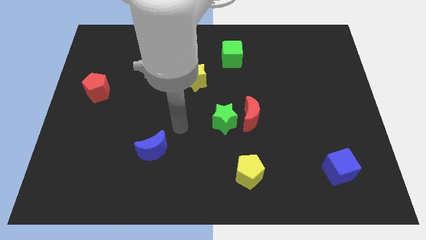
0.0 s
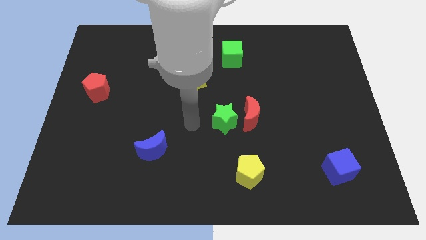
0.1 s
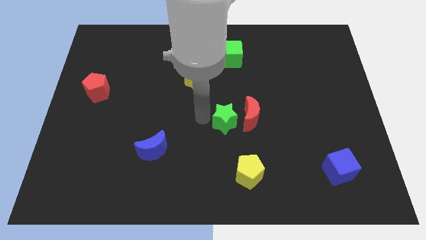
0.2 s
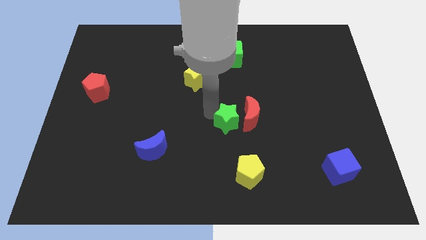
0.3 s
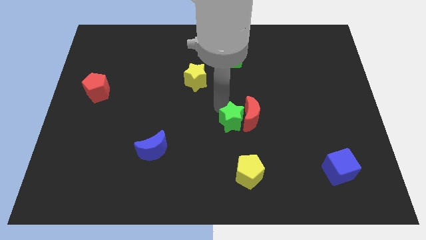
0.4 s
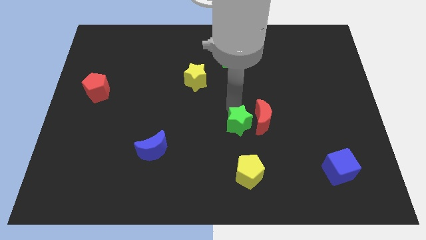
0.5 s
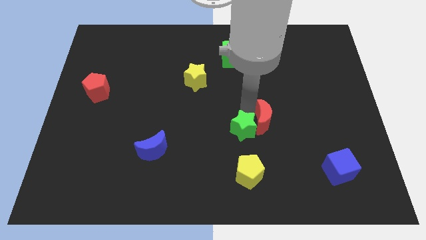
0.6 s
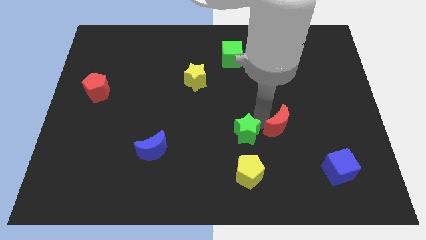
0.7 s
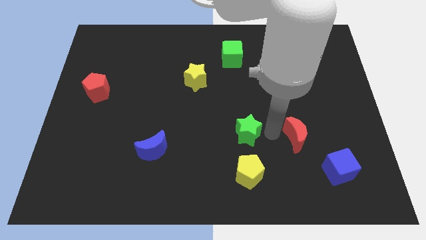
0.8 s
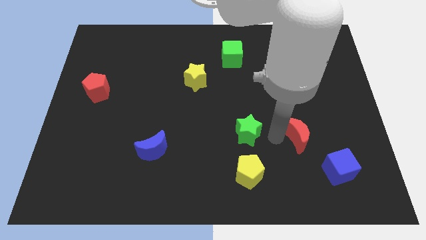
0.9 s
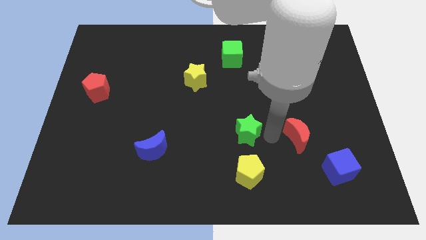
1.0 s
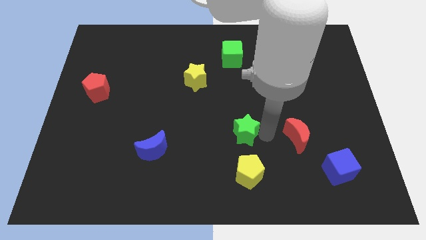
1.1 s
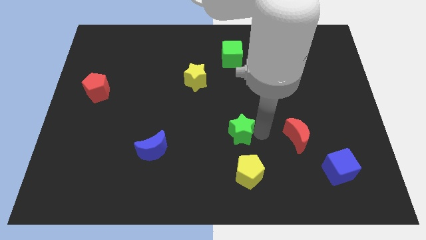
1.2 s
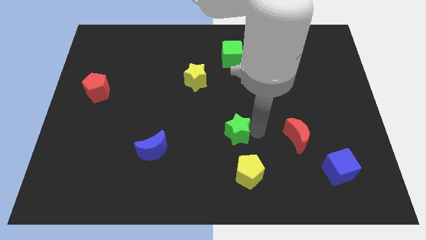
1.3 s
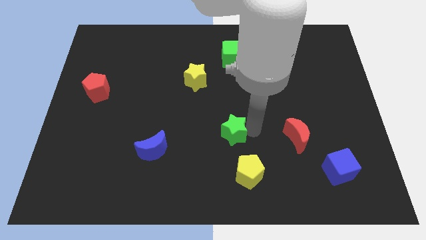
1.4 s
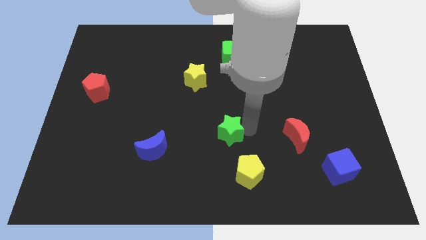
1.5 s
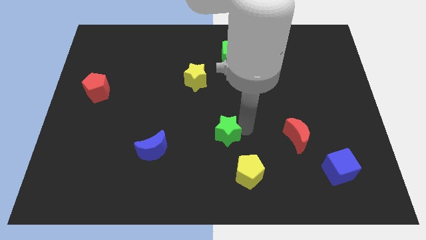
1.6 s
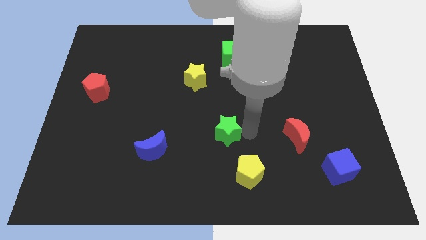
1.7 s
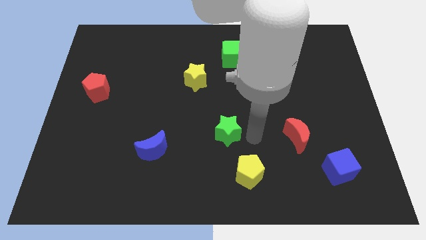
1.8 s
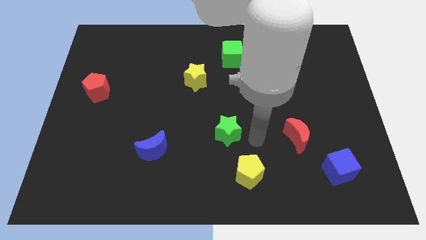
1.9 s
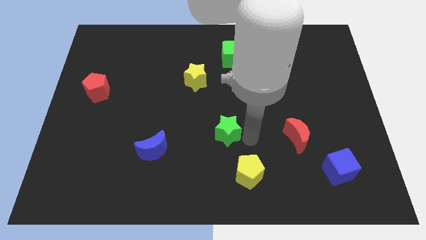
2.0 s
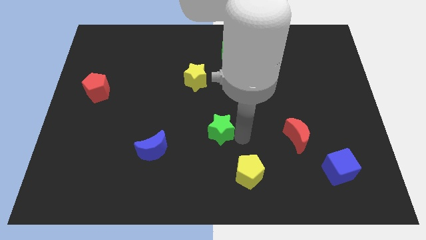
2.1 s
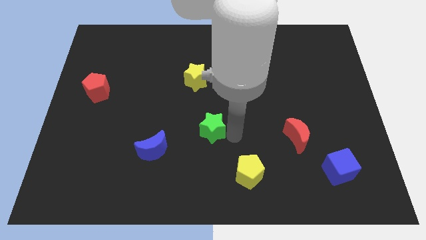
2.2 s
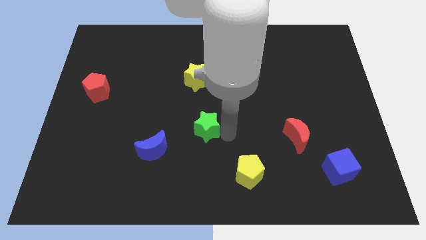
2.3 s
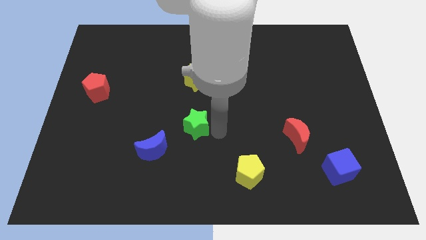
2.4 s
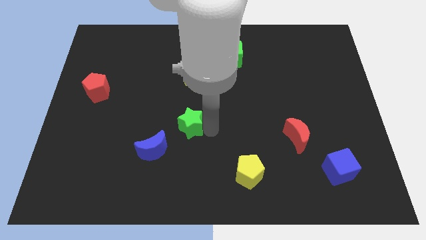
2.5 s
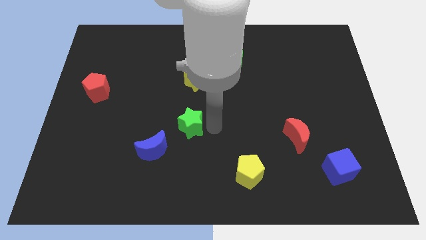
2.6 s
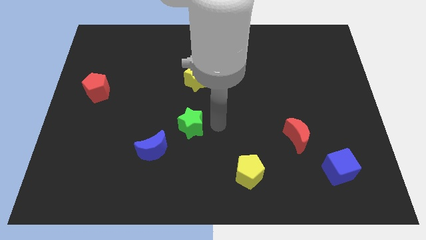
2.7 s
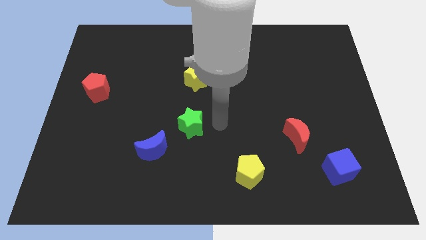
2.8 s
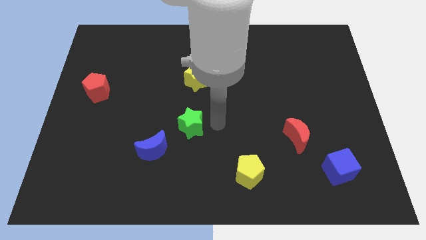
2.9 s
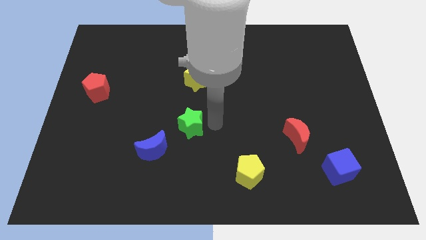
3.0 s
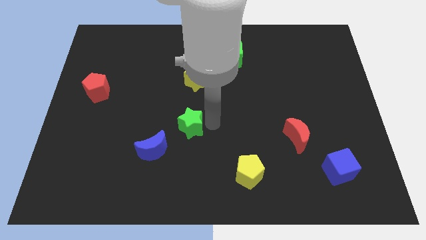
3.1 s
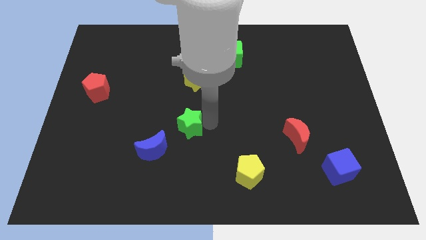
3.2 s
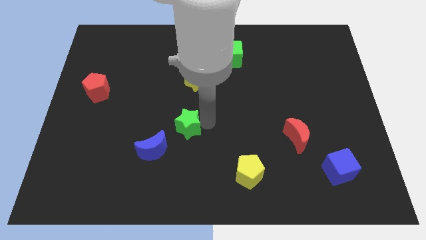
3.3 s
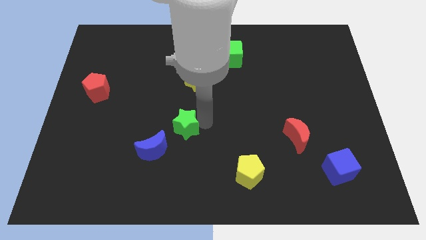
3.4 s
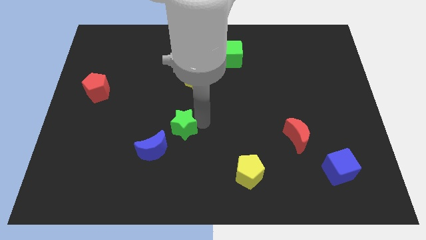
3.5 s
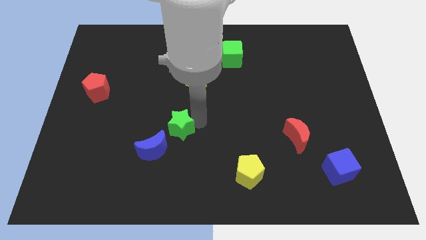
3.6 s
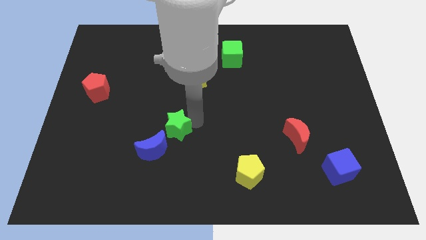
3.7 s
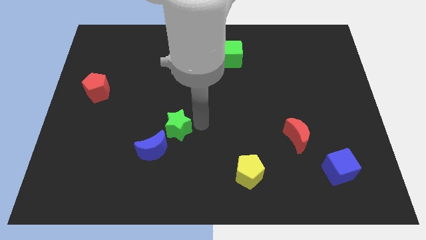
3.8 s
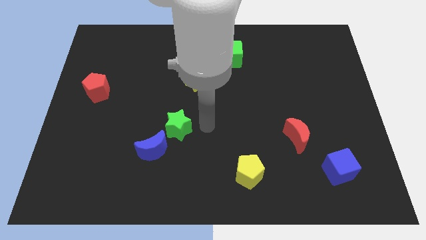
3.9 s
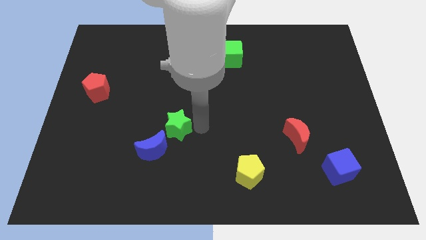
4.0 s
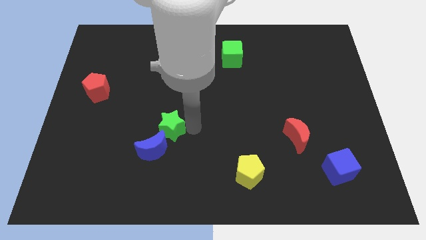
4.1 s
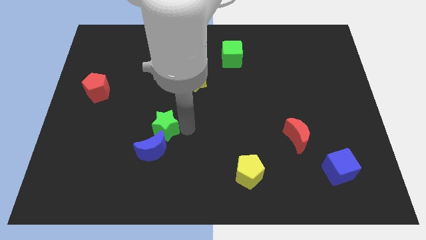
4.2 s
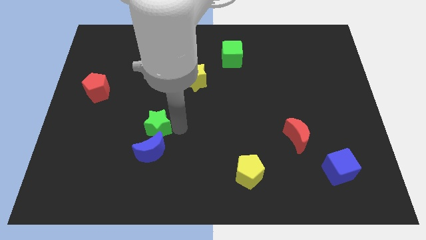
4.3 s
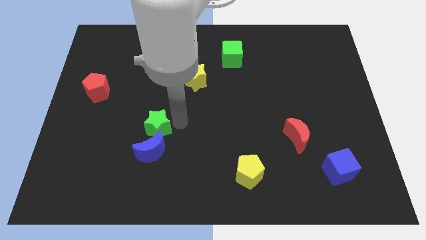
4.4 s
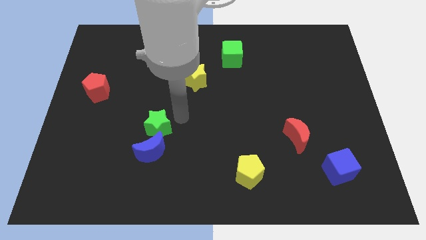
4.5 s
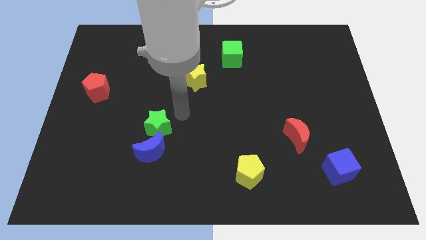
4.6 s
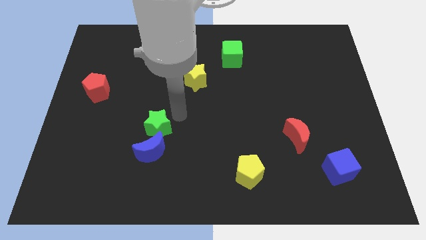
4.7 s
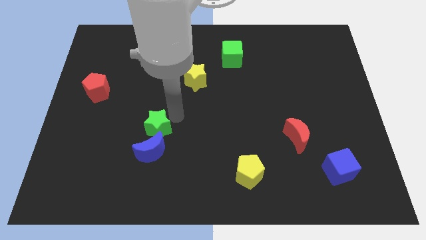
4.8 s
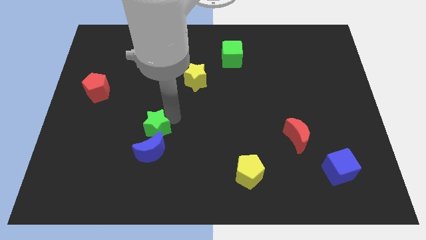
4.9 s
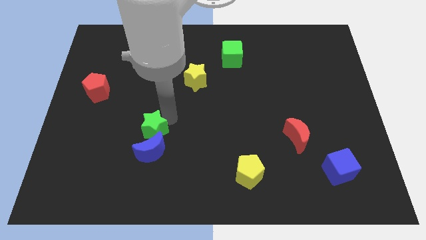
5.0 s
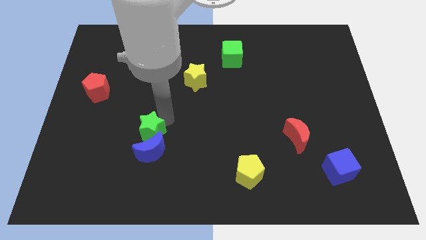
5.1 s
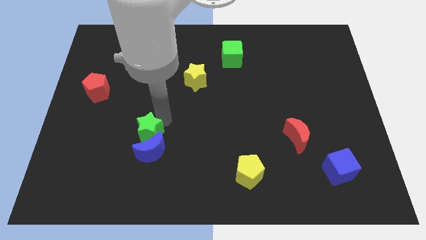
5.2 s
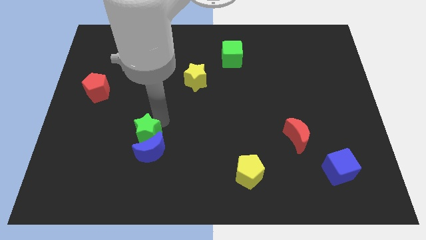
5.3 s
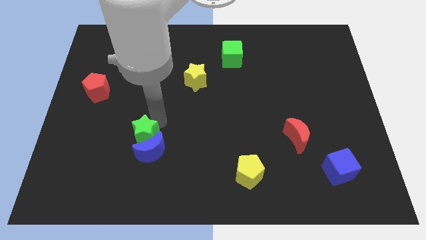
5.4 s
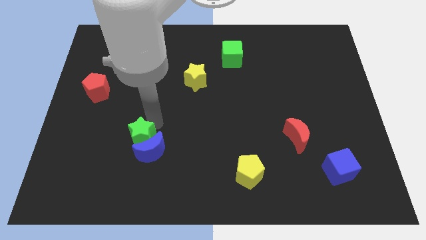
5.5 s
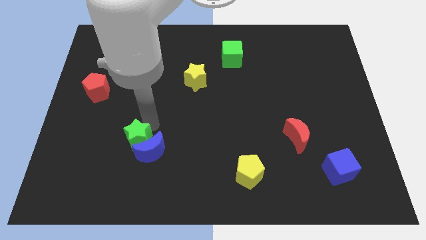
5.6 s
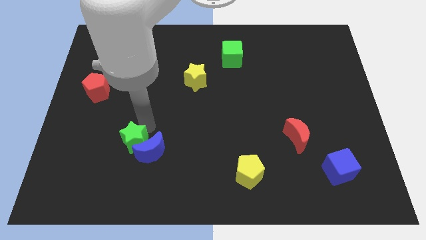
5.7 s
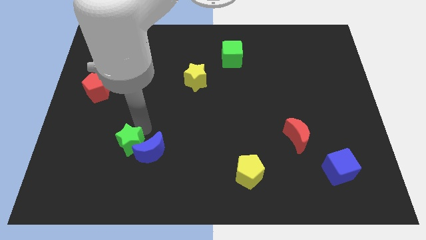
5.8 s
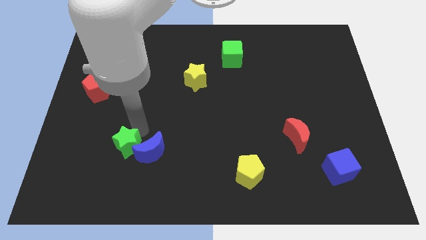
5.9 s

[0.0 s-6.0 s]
push the green star diagonally down and to the left of the blue moon
